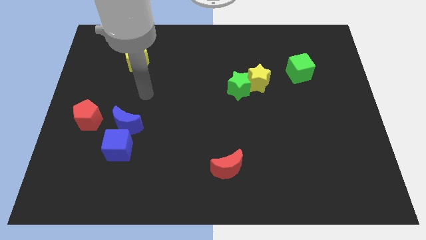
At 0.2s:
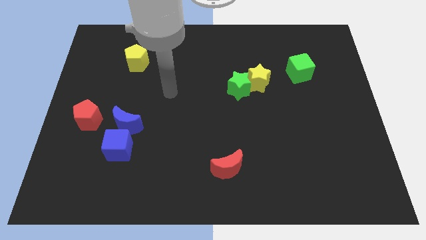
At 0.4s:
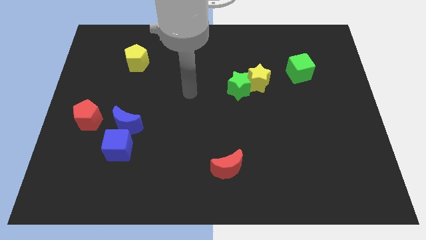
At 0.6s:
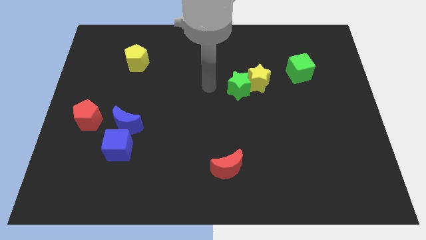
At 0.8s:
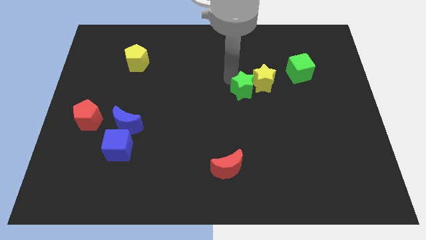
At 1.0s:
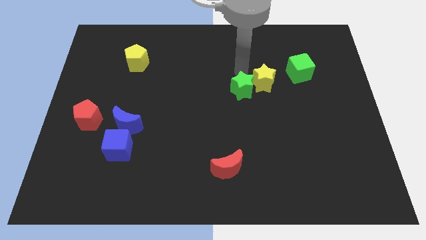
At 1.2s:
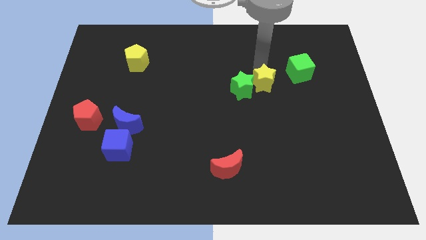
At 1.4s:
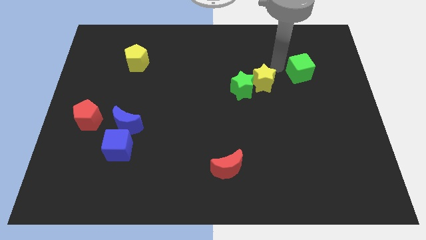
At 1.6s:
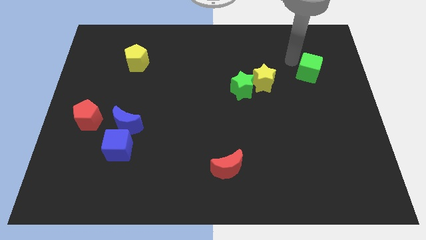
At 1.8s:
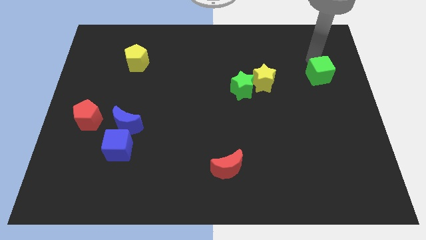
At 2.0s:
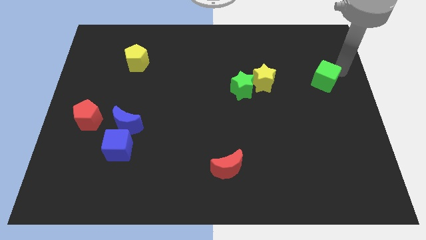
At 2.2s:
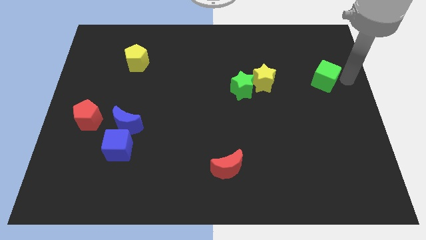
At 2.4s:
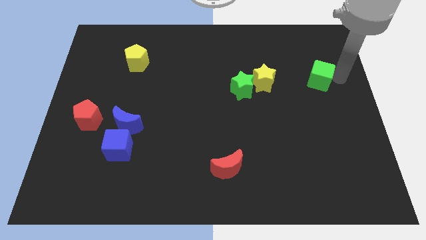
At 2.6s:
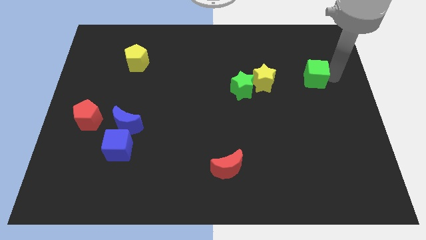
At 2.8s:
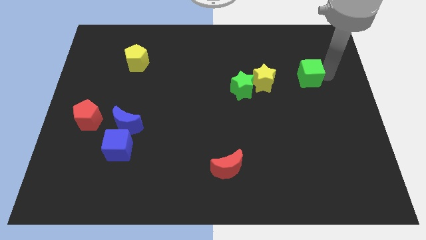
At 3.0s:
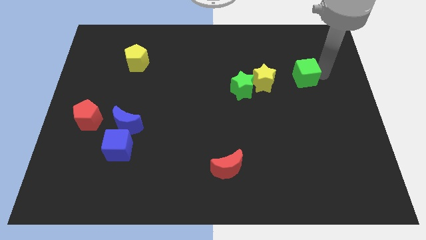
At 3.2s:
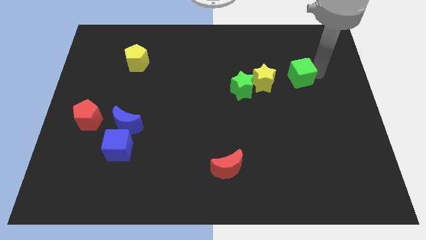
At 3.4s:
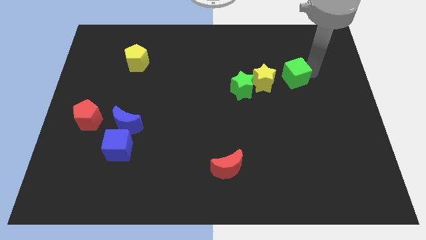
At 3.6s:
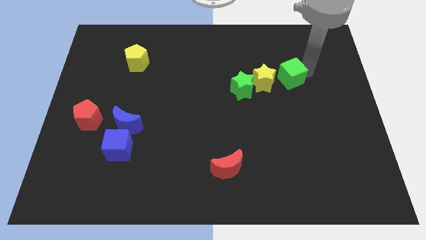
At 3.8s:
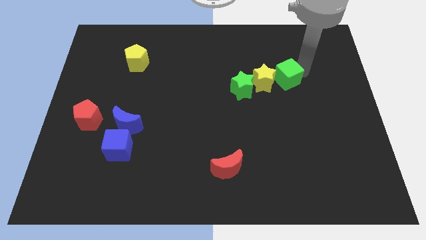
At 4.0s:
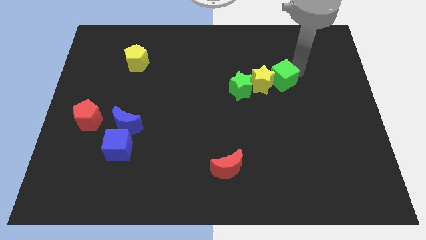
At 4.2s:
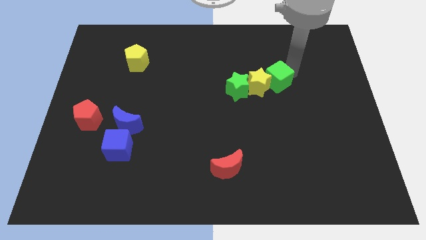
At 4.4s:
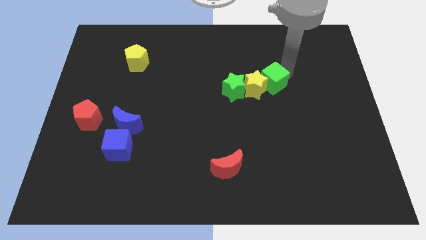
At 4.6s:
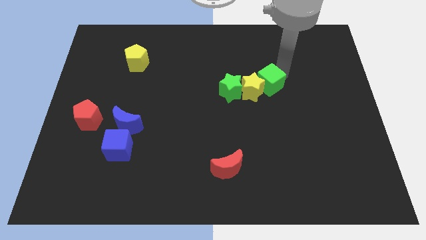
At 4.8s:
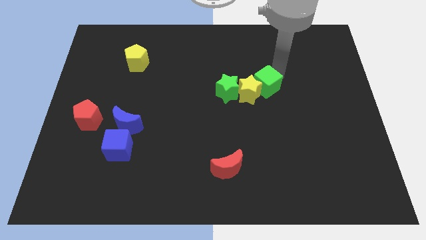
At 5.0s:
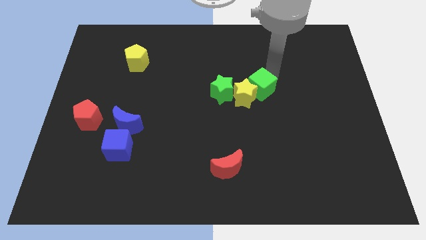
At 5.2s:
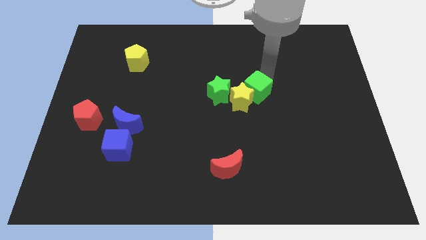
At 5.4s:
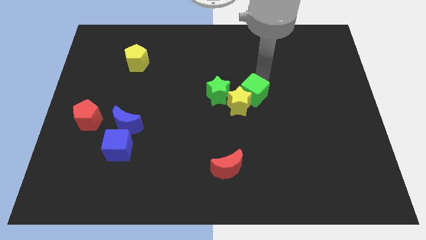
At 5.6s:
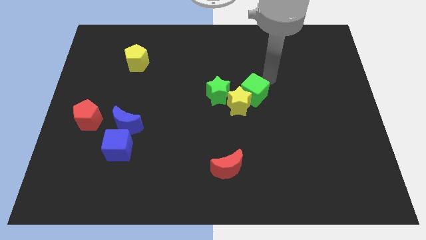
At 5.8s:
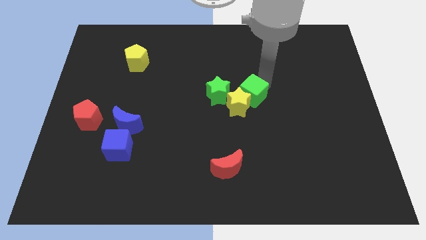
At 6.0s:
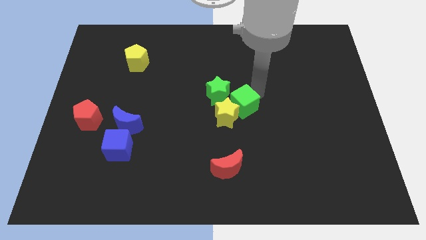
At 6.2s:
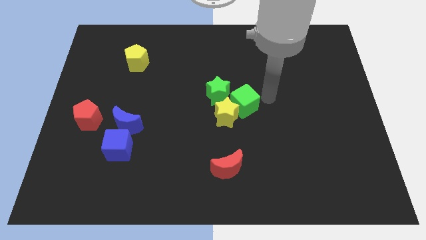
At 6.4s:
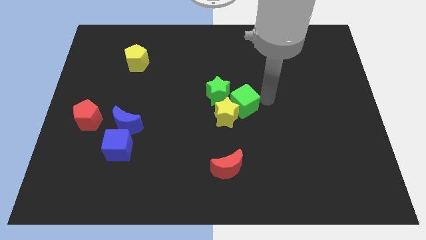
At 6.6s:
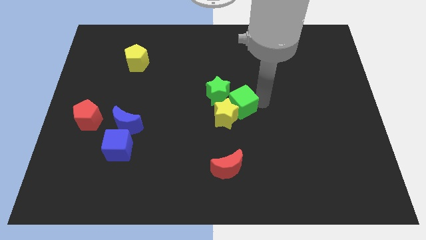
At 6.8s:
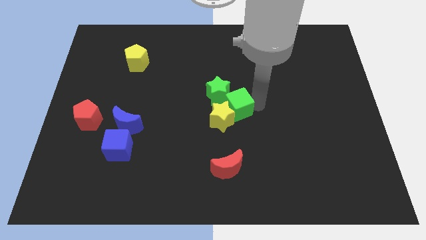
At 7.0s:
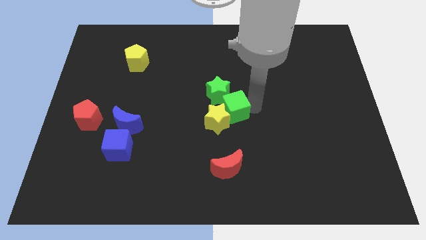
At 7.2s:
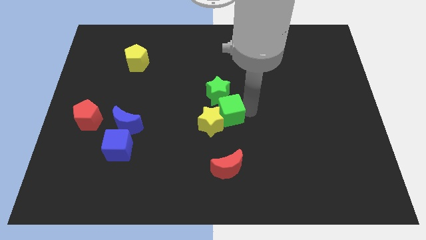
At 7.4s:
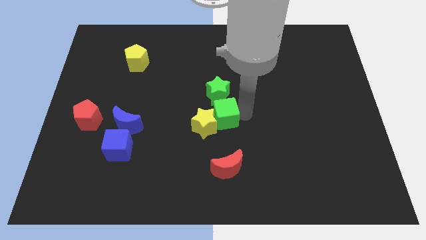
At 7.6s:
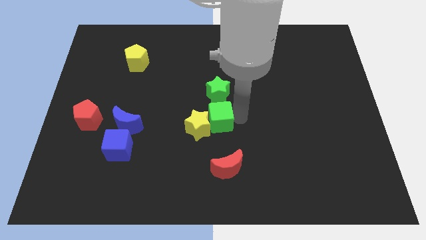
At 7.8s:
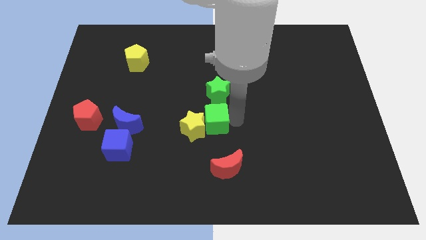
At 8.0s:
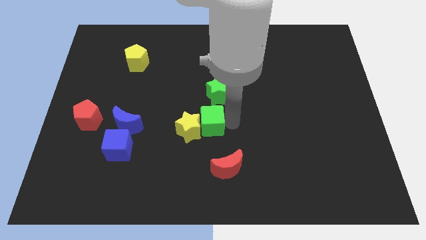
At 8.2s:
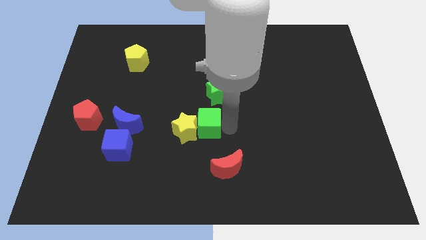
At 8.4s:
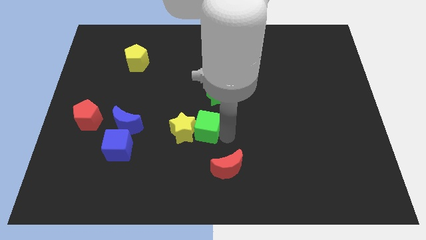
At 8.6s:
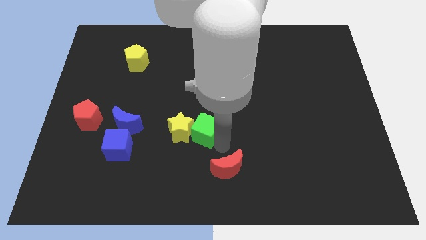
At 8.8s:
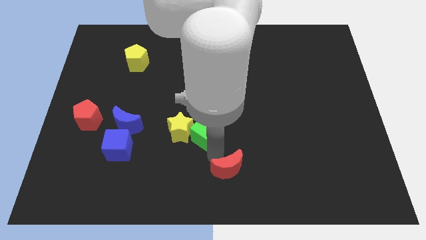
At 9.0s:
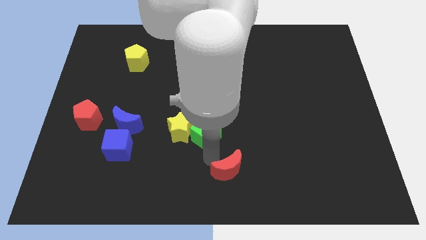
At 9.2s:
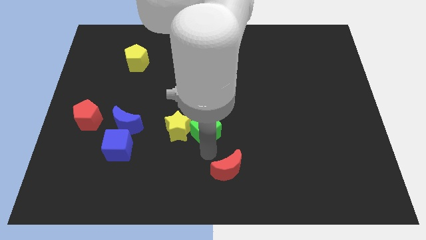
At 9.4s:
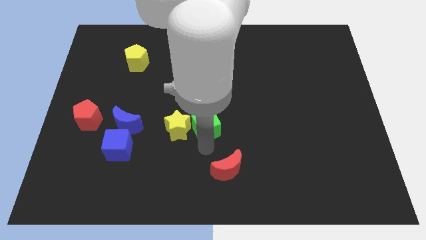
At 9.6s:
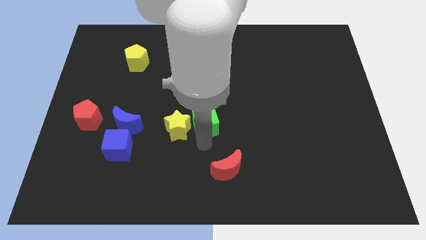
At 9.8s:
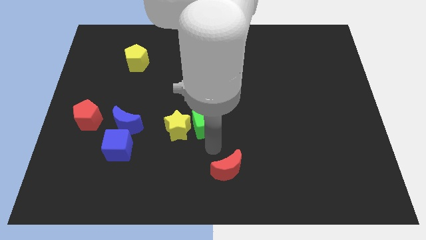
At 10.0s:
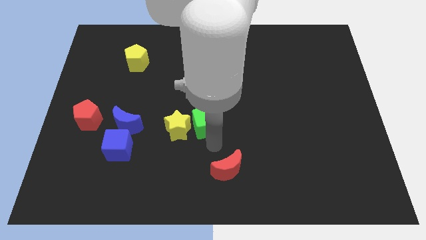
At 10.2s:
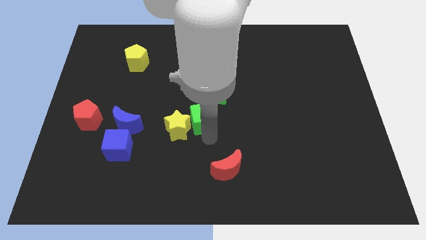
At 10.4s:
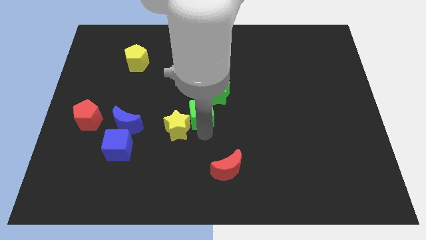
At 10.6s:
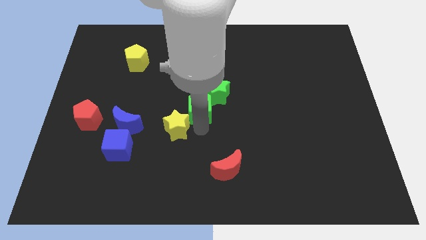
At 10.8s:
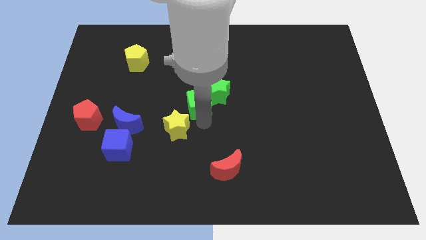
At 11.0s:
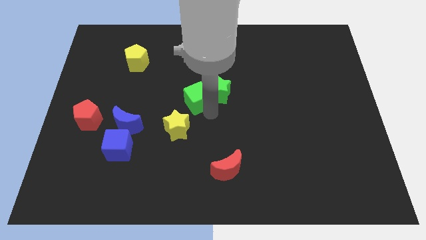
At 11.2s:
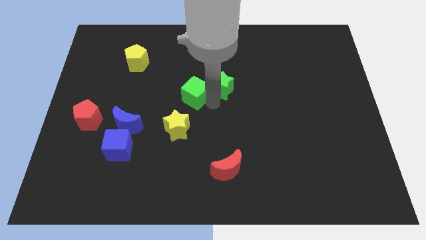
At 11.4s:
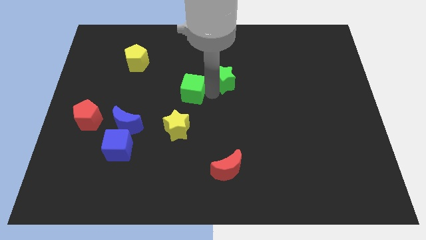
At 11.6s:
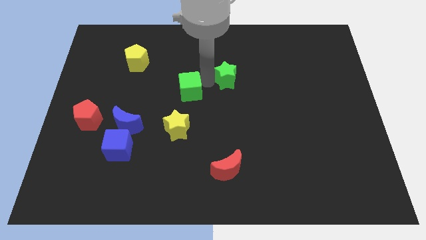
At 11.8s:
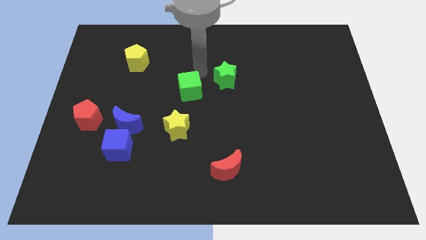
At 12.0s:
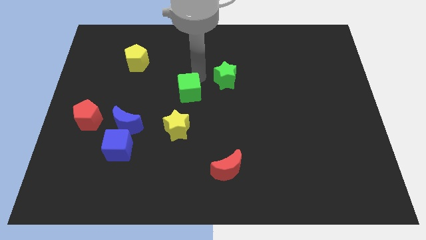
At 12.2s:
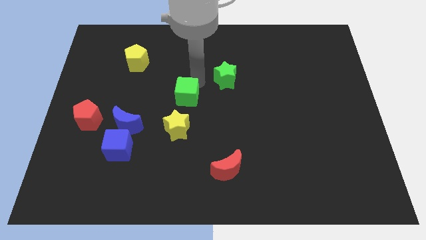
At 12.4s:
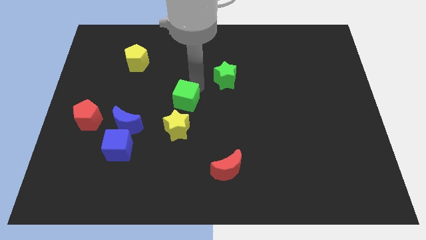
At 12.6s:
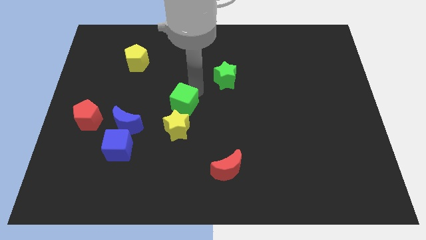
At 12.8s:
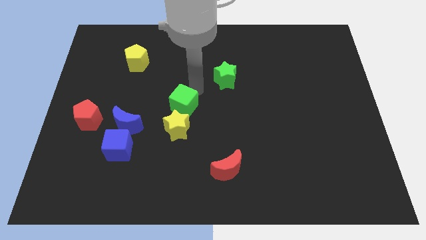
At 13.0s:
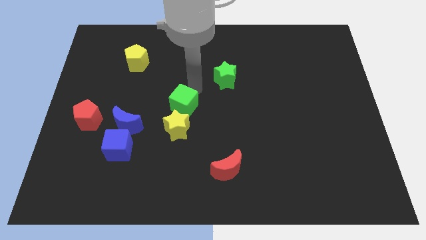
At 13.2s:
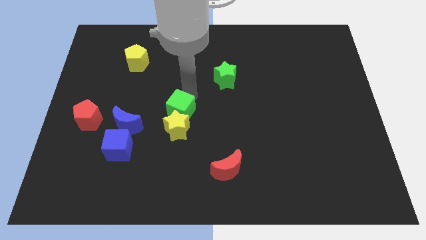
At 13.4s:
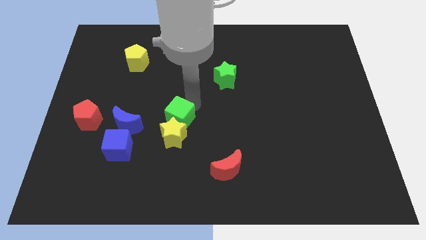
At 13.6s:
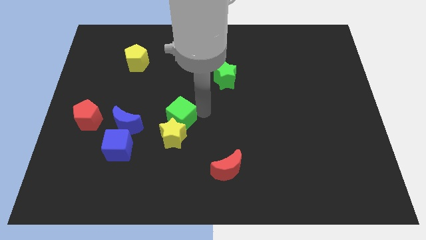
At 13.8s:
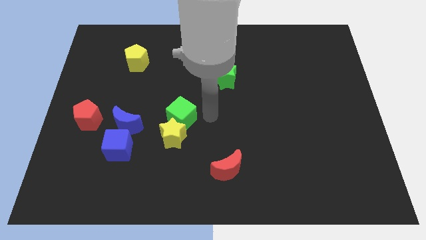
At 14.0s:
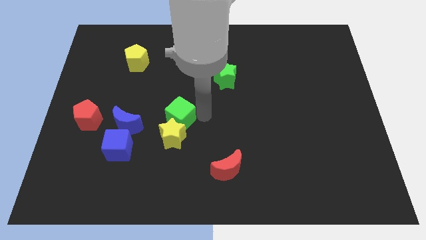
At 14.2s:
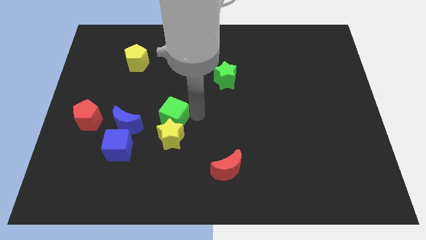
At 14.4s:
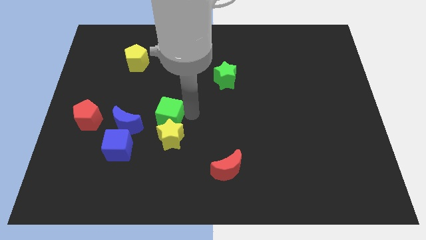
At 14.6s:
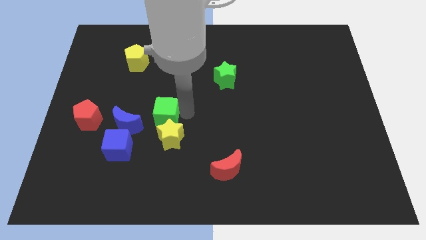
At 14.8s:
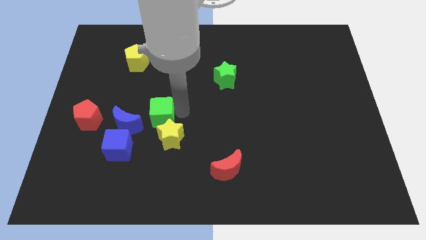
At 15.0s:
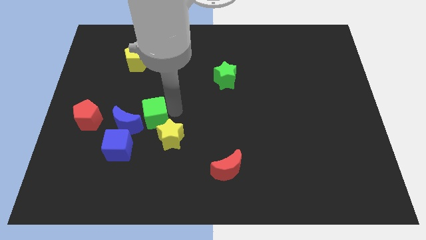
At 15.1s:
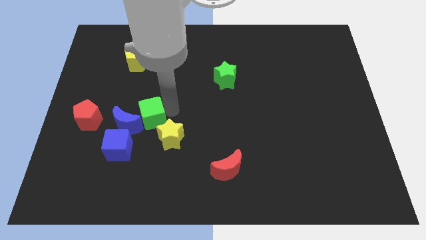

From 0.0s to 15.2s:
push the green cube to the blue moon
